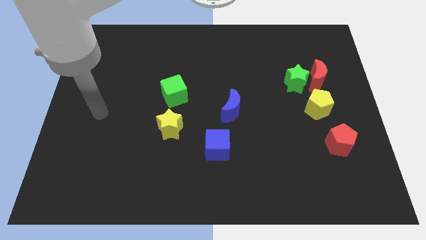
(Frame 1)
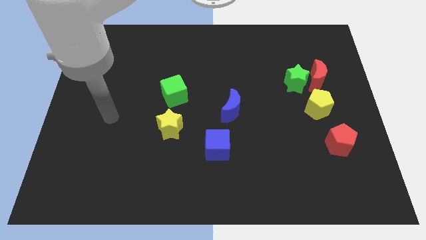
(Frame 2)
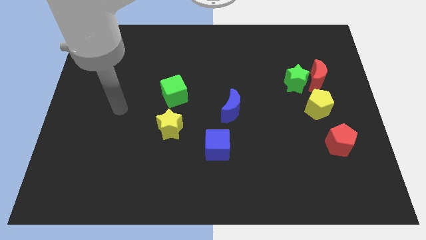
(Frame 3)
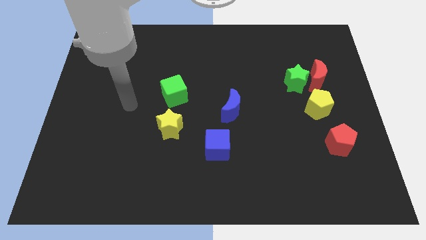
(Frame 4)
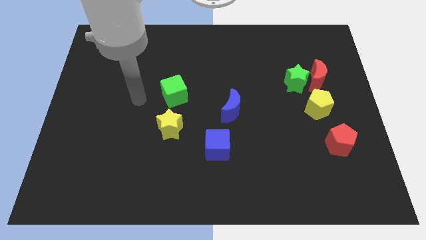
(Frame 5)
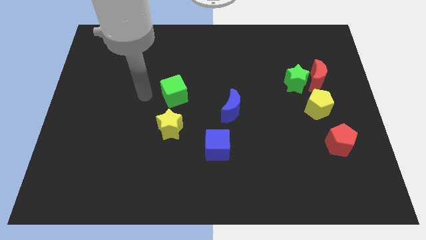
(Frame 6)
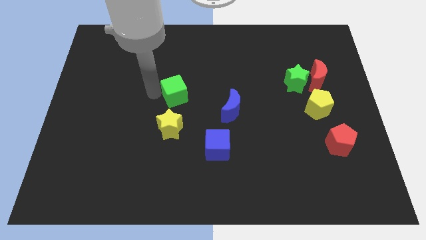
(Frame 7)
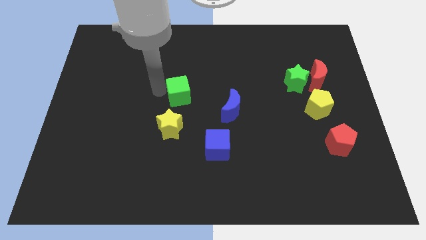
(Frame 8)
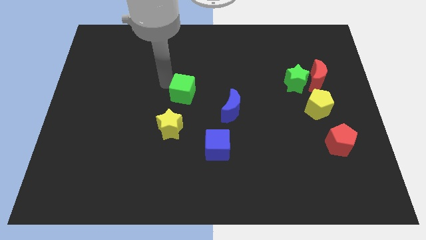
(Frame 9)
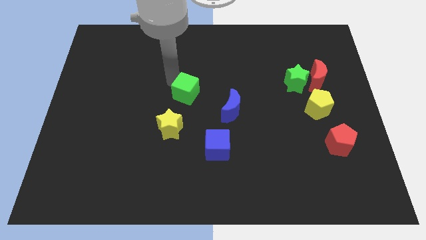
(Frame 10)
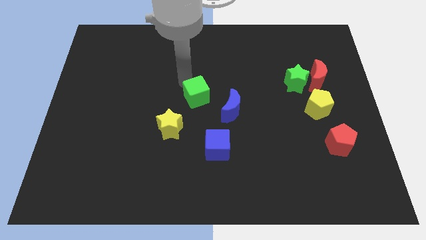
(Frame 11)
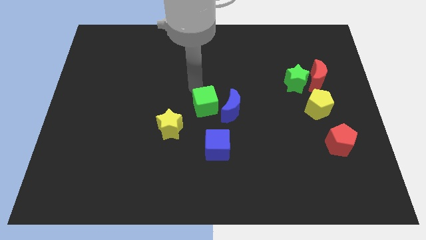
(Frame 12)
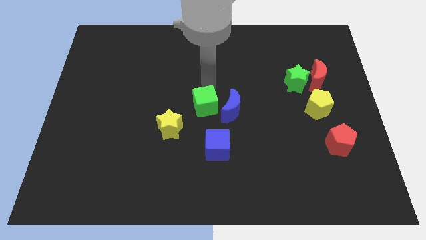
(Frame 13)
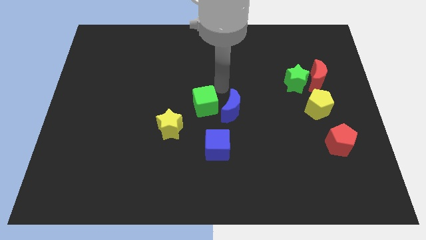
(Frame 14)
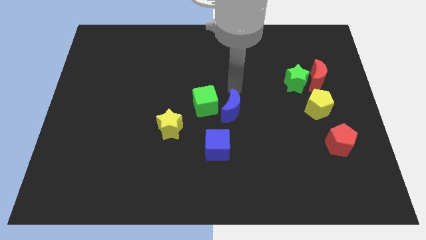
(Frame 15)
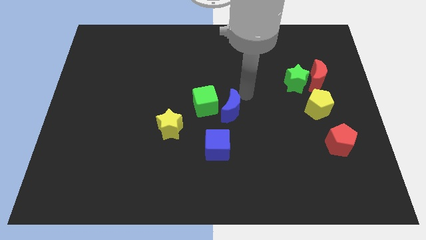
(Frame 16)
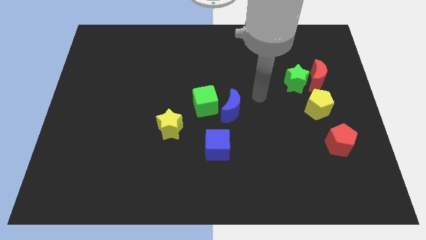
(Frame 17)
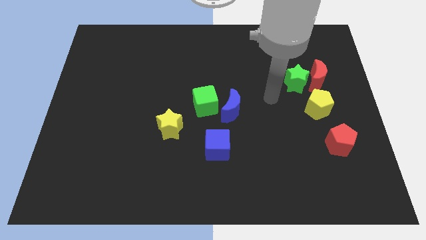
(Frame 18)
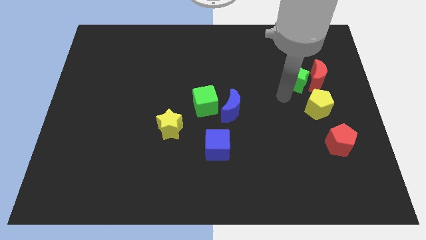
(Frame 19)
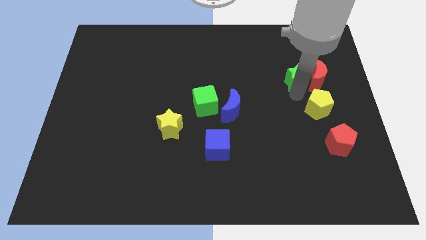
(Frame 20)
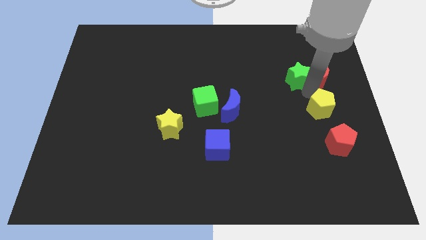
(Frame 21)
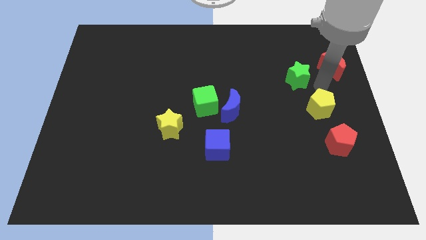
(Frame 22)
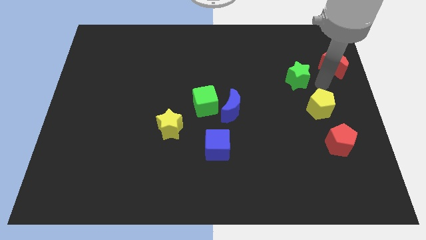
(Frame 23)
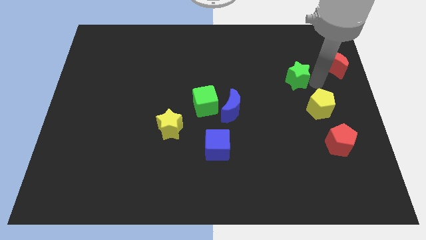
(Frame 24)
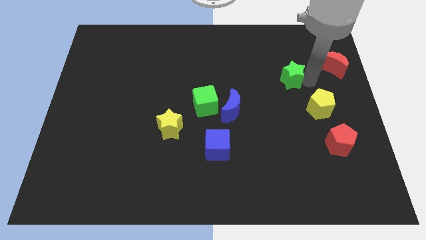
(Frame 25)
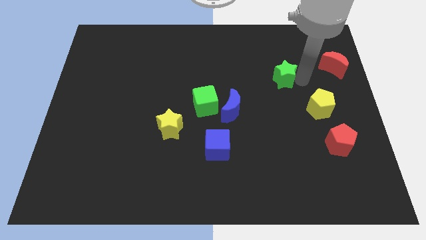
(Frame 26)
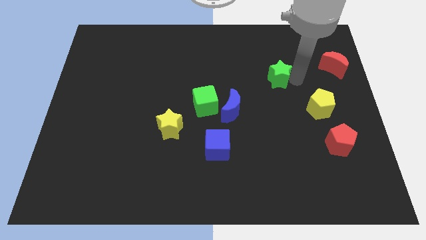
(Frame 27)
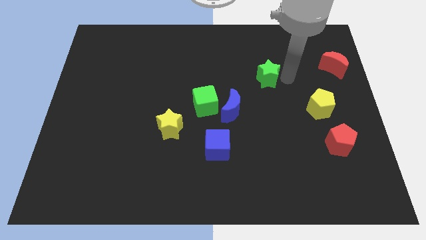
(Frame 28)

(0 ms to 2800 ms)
slide the green star a bit to the left

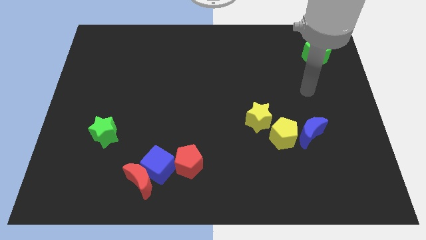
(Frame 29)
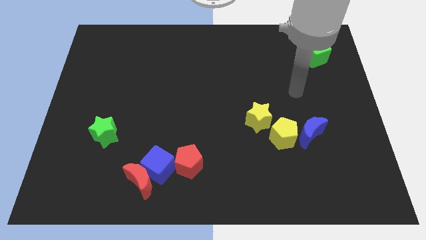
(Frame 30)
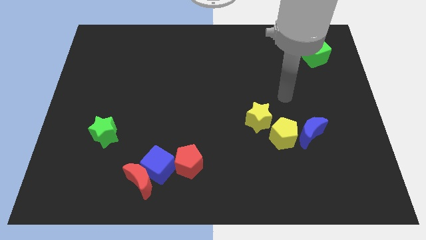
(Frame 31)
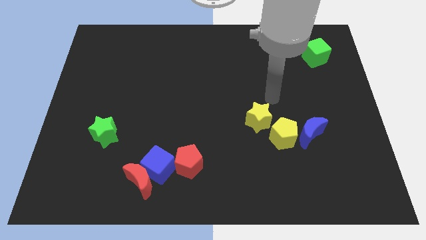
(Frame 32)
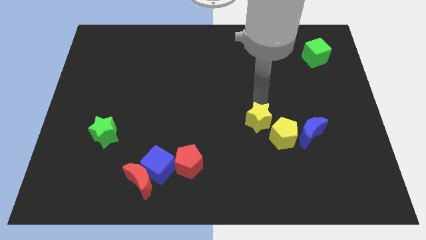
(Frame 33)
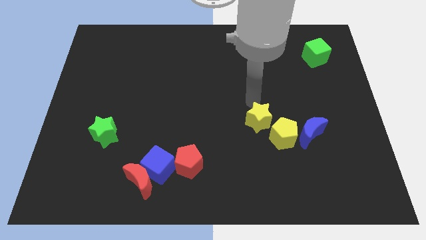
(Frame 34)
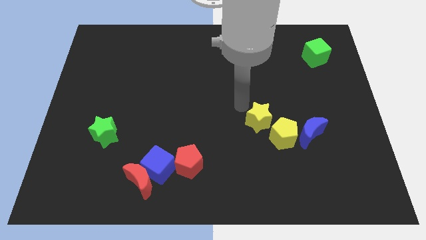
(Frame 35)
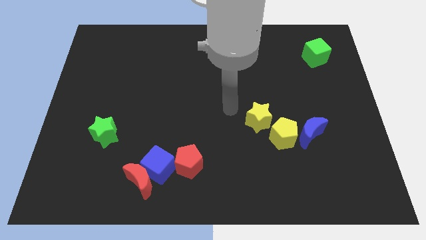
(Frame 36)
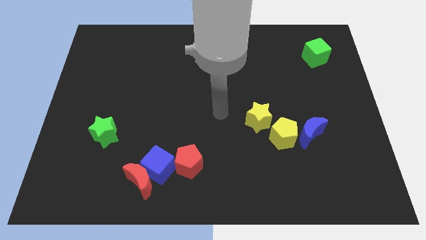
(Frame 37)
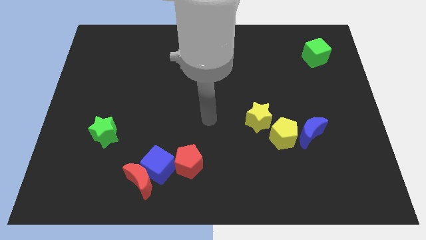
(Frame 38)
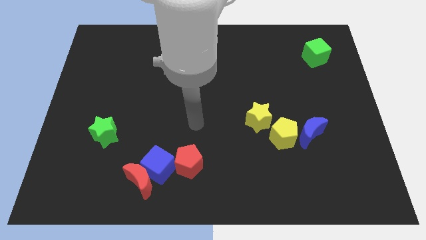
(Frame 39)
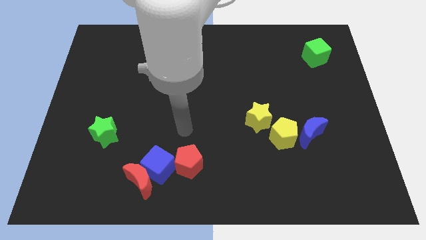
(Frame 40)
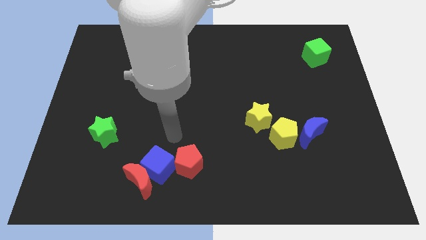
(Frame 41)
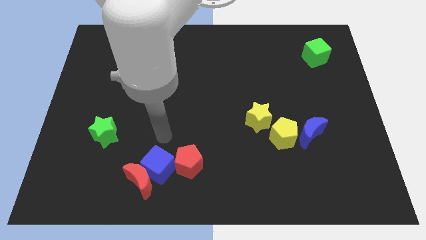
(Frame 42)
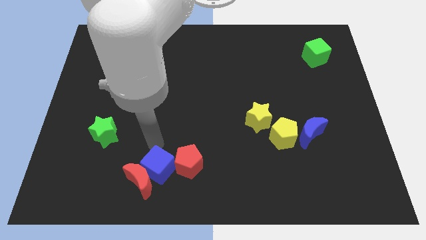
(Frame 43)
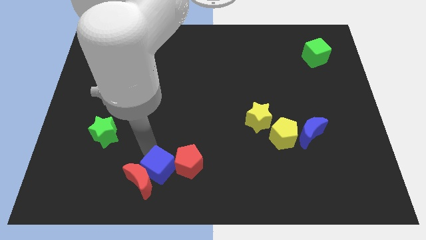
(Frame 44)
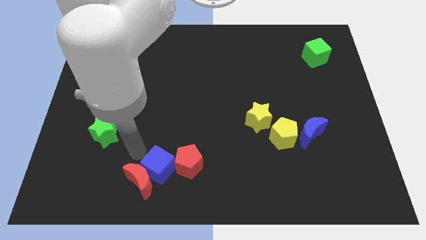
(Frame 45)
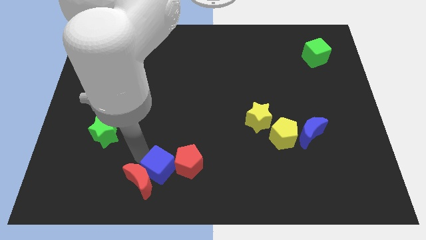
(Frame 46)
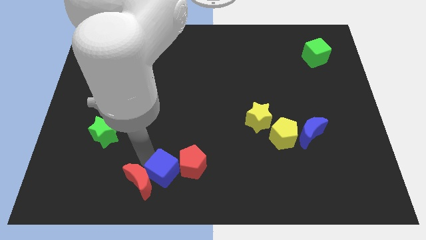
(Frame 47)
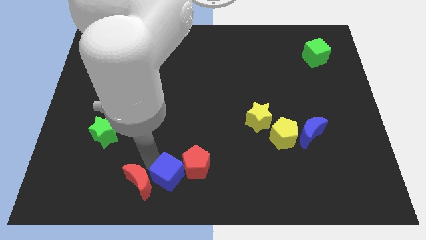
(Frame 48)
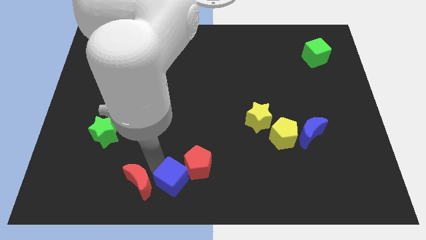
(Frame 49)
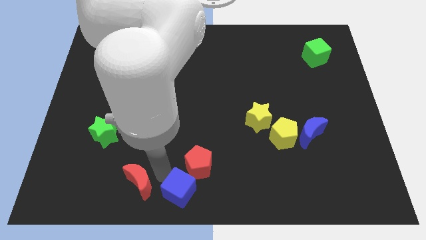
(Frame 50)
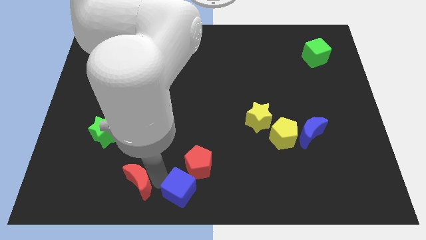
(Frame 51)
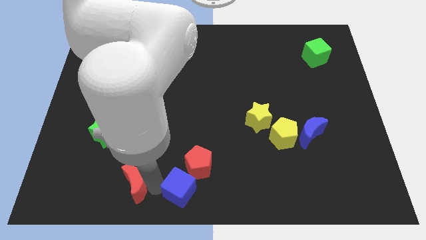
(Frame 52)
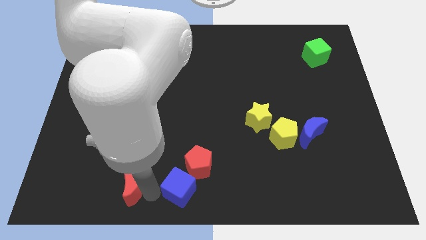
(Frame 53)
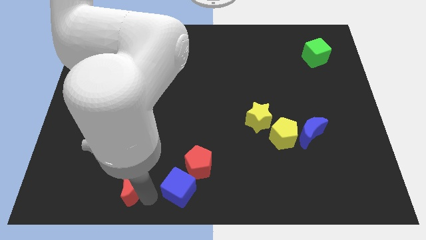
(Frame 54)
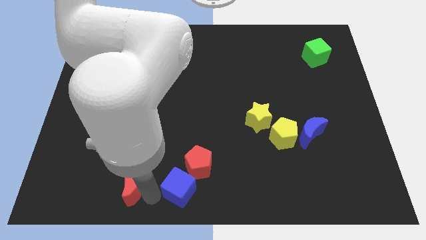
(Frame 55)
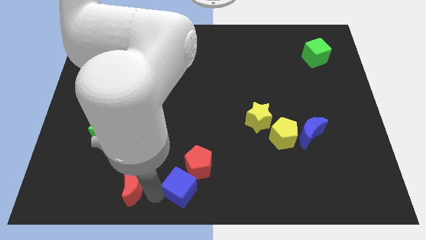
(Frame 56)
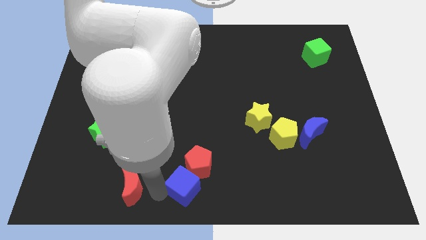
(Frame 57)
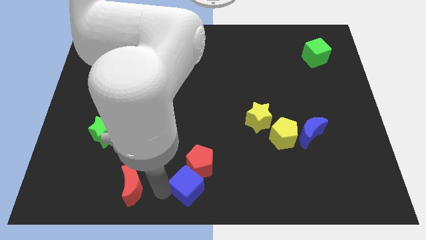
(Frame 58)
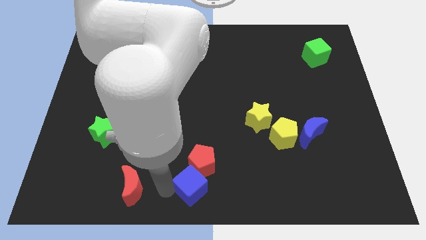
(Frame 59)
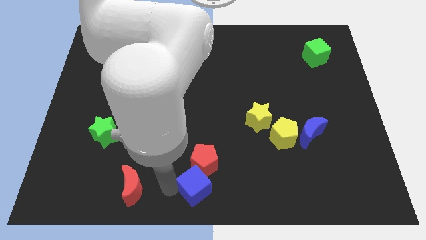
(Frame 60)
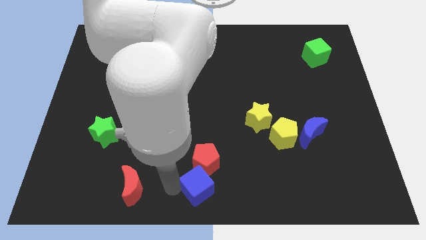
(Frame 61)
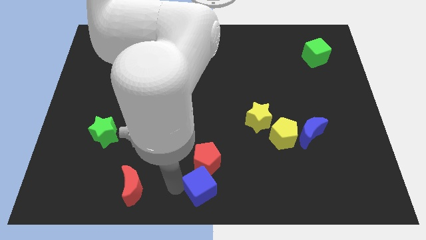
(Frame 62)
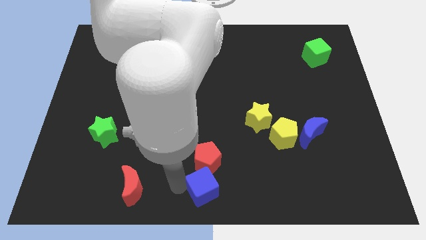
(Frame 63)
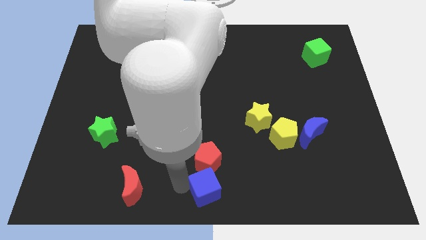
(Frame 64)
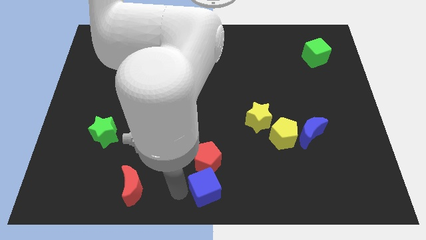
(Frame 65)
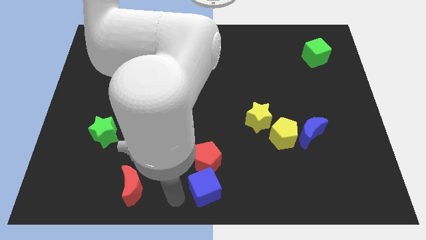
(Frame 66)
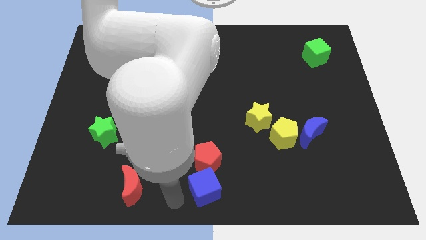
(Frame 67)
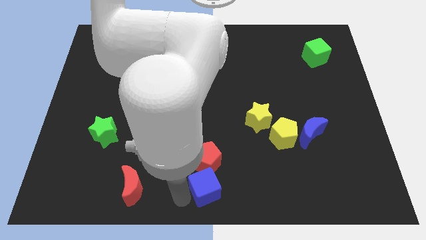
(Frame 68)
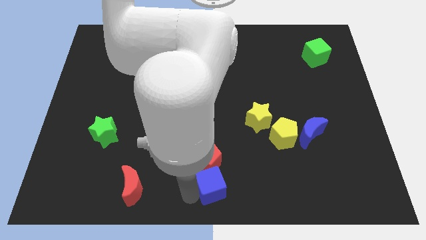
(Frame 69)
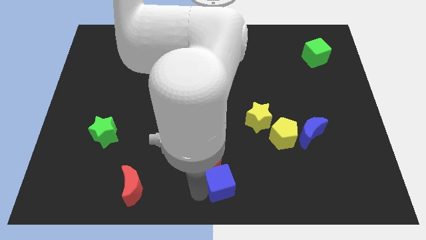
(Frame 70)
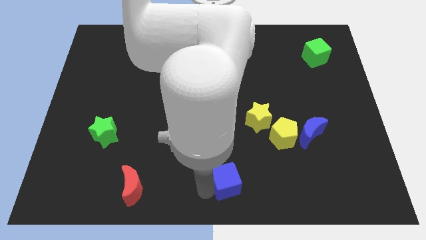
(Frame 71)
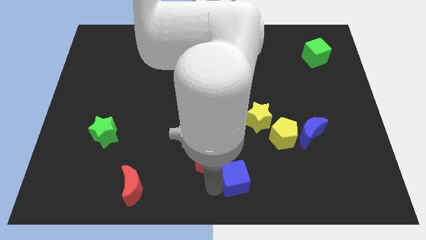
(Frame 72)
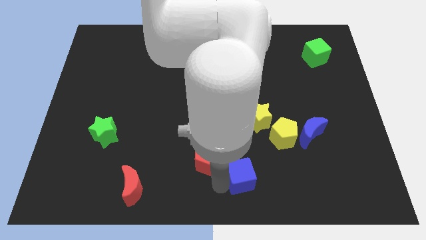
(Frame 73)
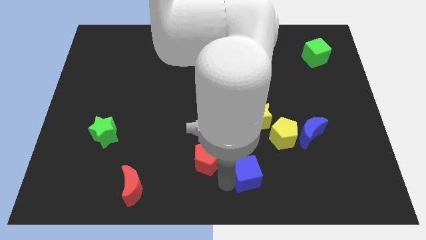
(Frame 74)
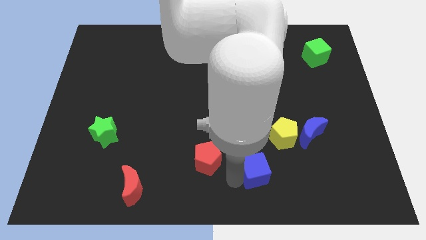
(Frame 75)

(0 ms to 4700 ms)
push the blue cube to the right

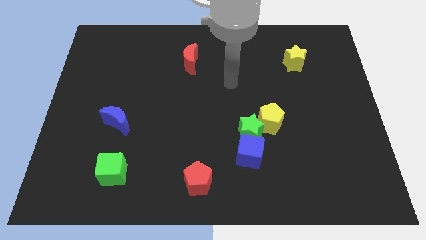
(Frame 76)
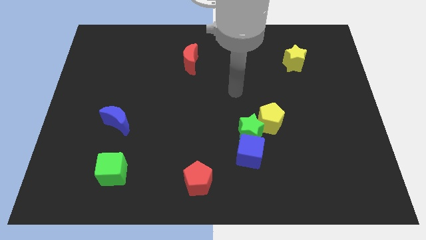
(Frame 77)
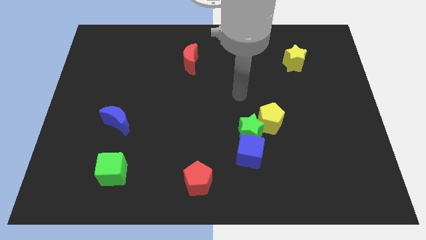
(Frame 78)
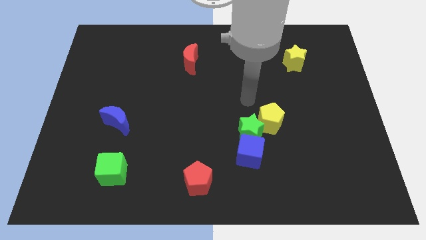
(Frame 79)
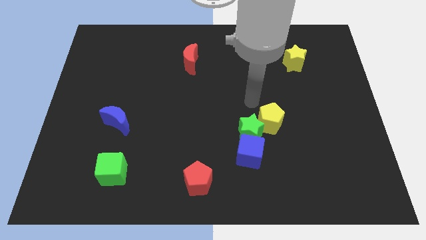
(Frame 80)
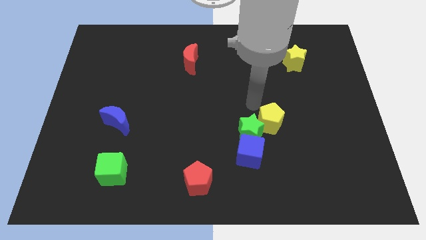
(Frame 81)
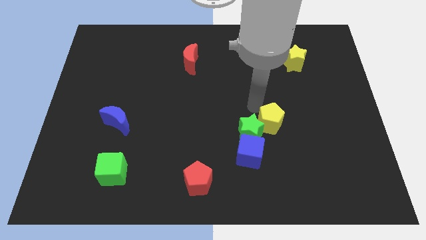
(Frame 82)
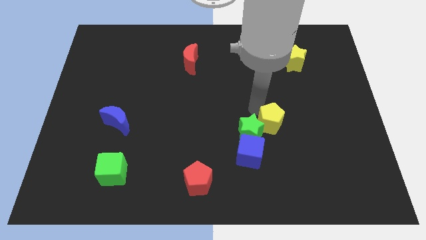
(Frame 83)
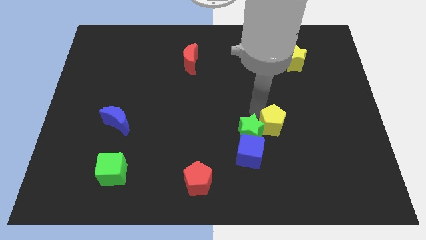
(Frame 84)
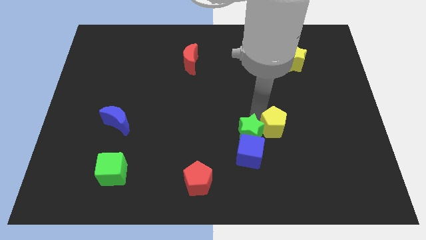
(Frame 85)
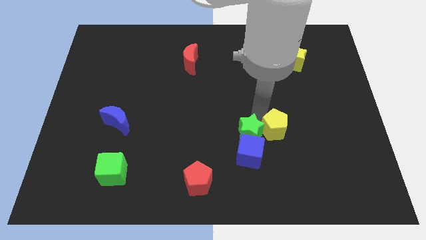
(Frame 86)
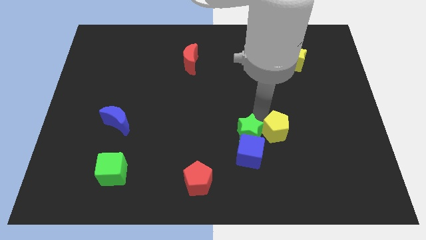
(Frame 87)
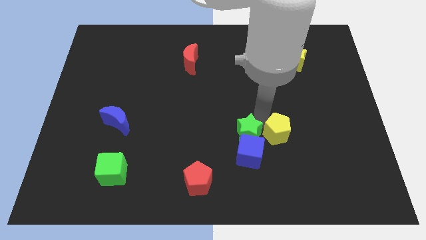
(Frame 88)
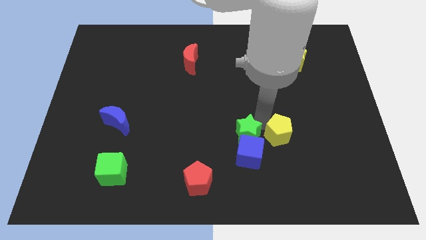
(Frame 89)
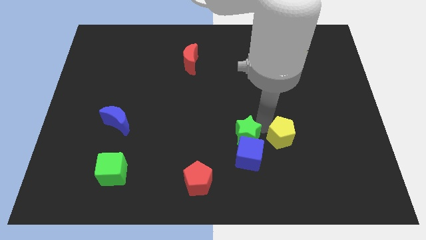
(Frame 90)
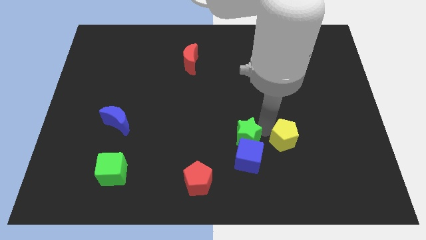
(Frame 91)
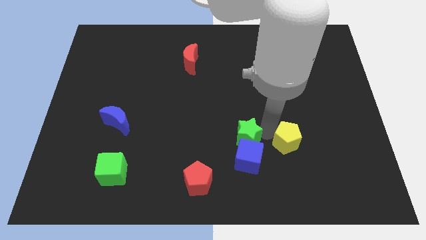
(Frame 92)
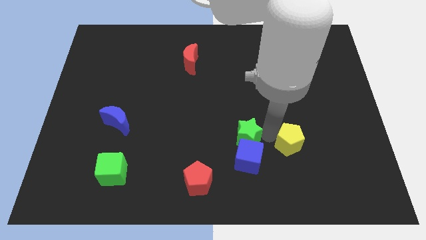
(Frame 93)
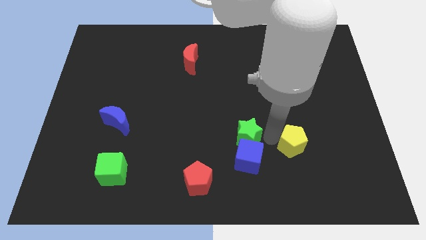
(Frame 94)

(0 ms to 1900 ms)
slide the yellow pentagon down and to the right diagonally a bit
